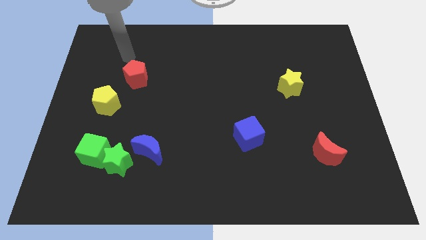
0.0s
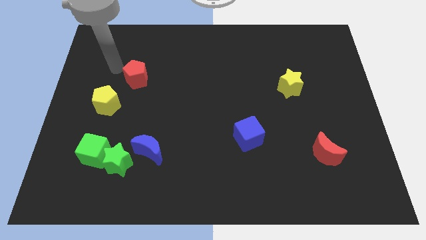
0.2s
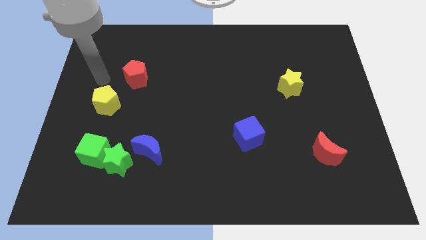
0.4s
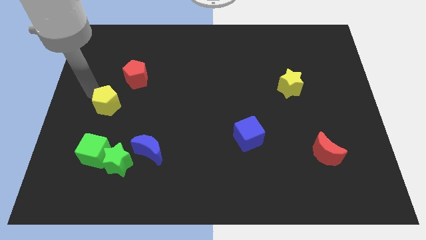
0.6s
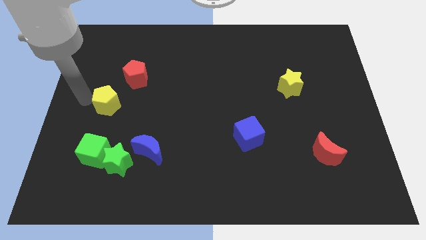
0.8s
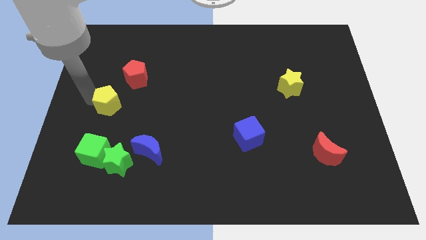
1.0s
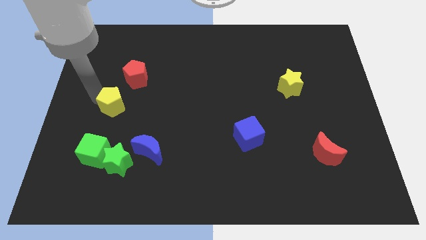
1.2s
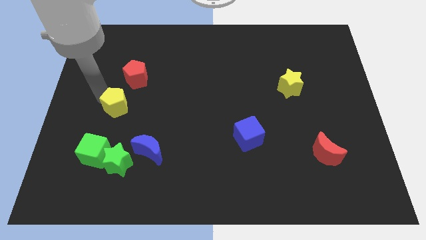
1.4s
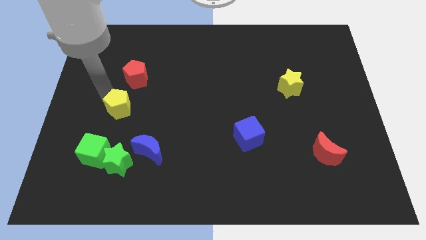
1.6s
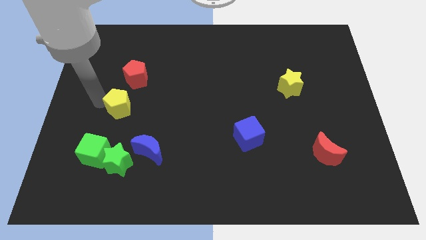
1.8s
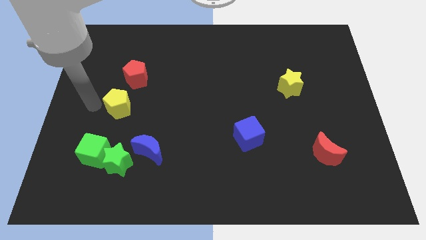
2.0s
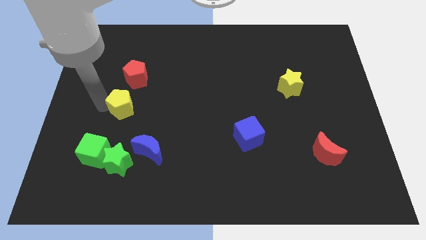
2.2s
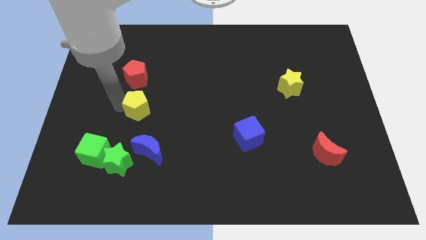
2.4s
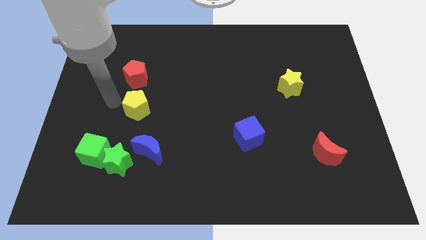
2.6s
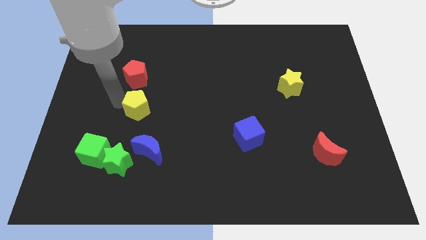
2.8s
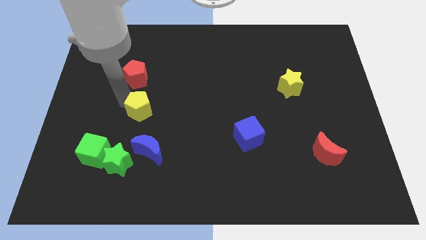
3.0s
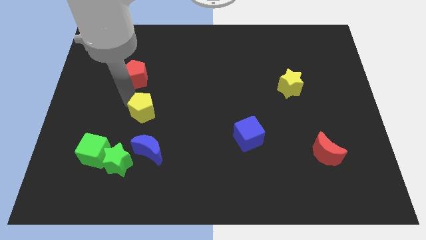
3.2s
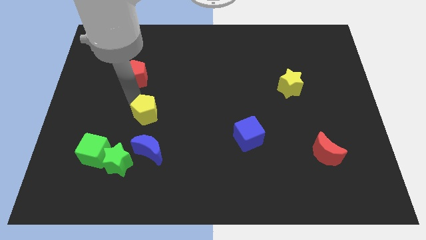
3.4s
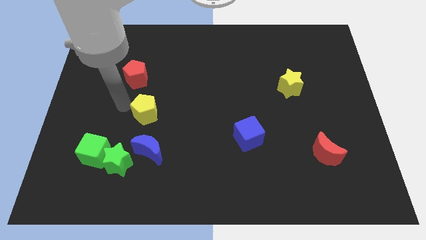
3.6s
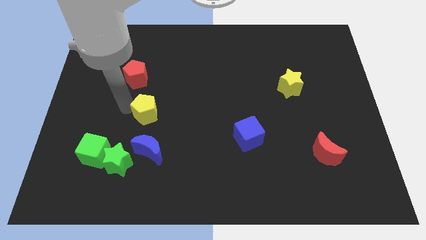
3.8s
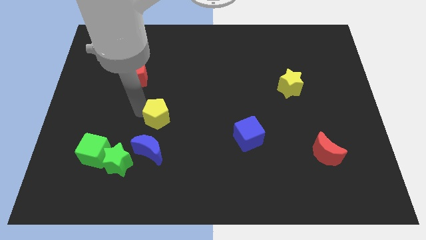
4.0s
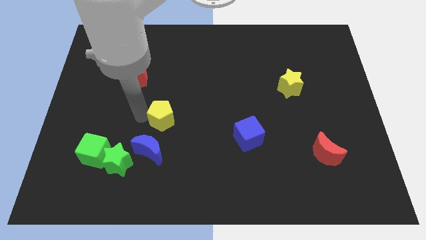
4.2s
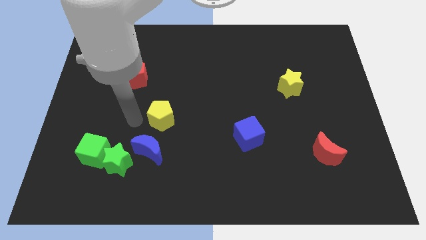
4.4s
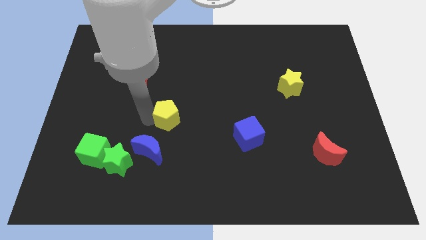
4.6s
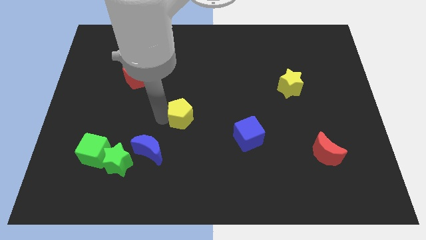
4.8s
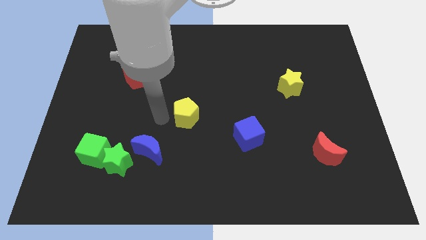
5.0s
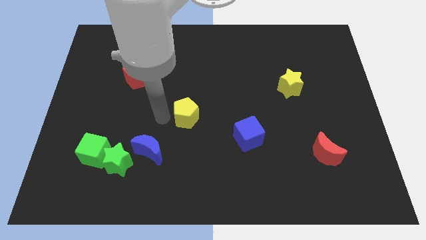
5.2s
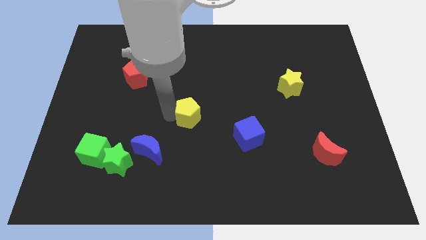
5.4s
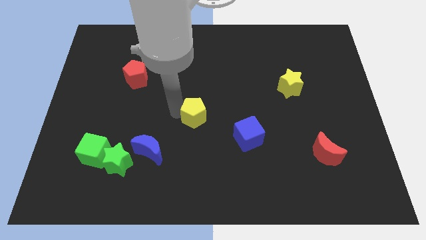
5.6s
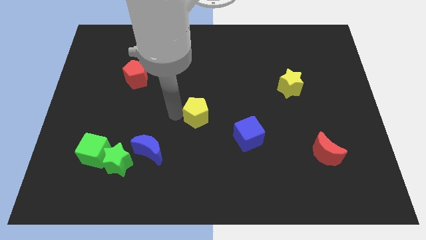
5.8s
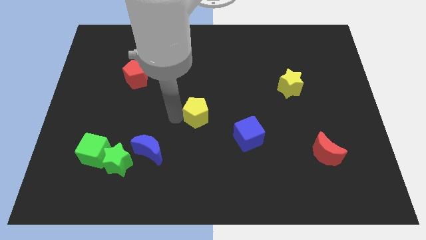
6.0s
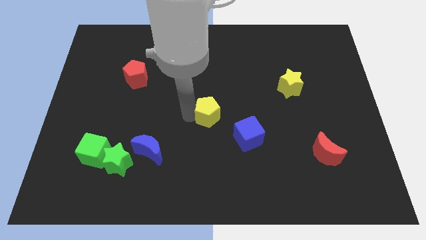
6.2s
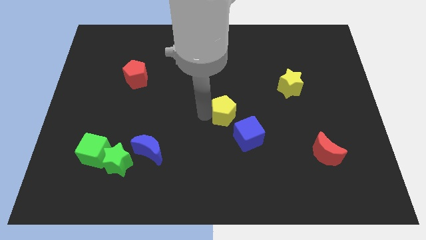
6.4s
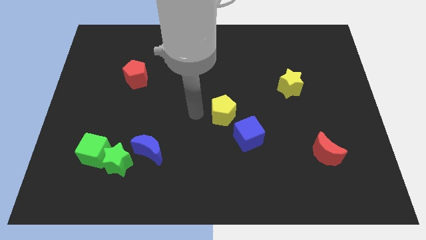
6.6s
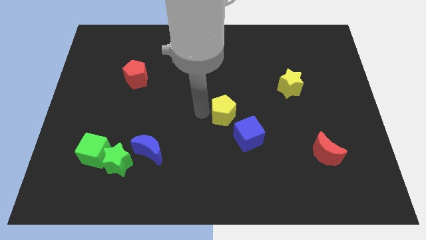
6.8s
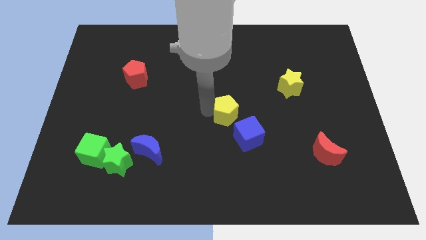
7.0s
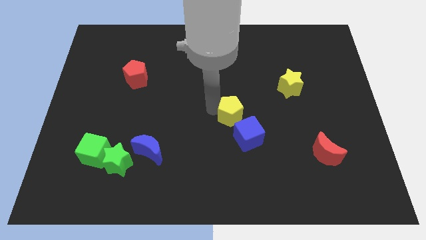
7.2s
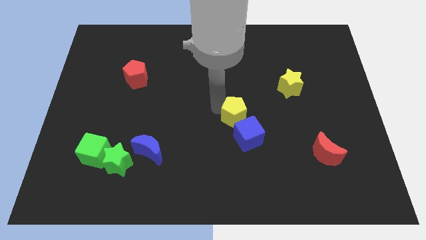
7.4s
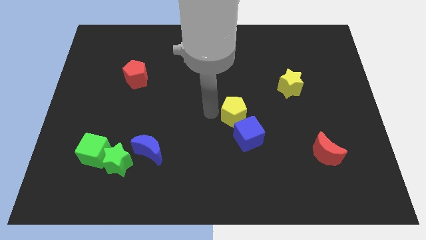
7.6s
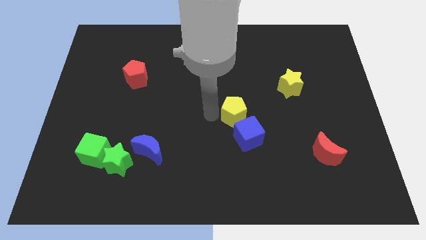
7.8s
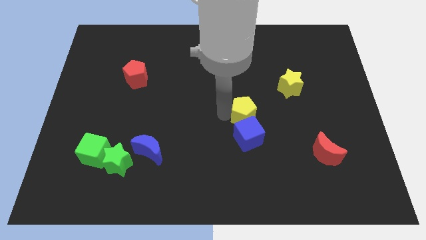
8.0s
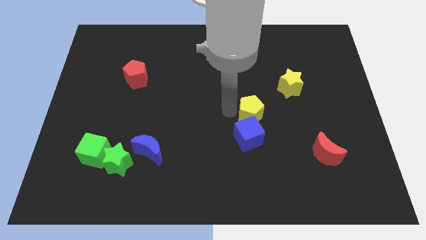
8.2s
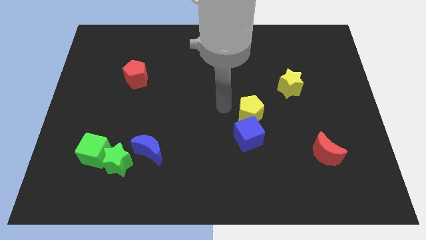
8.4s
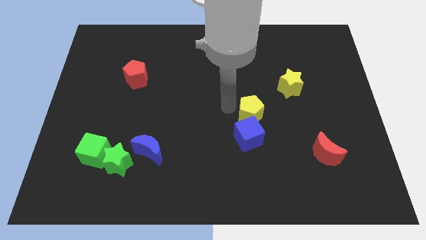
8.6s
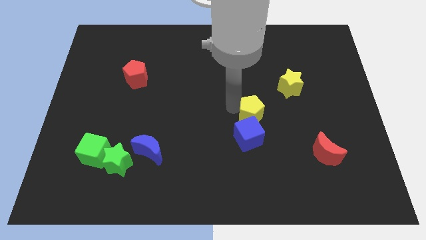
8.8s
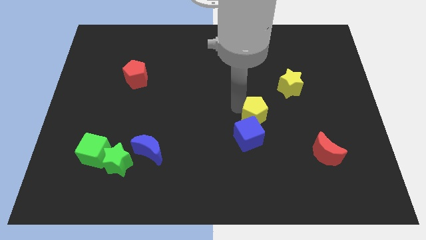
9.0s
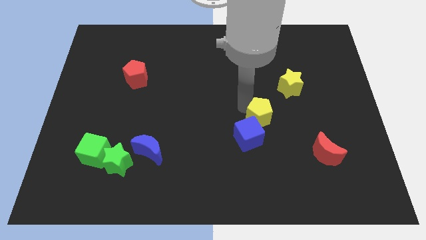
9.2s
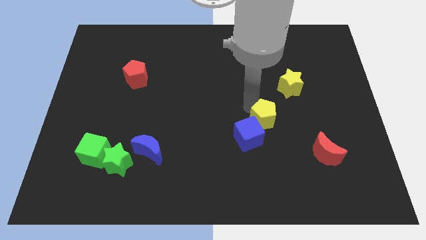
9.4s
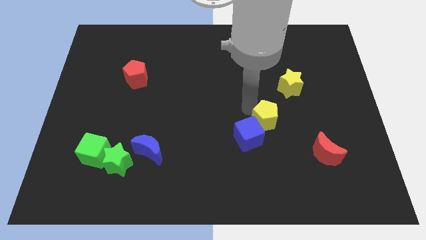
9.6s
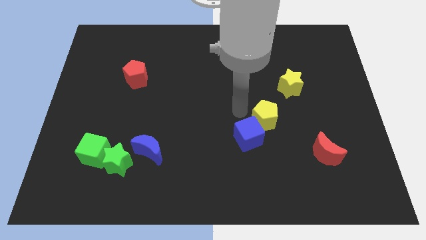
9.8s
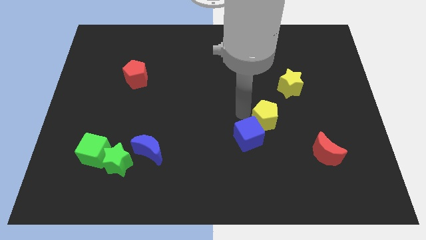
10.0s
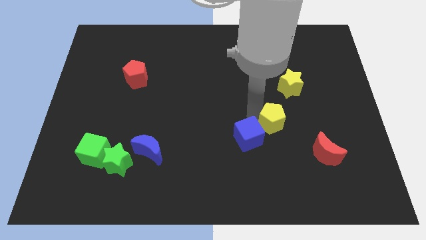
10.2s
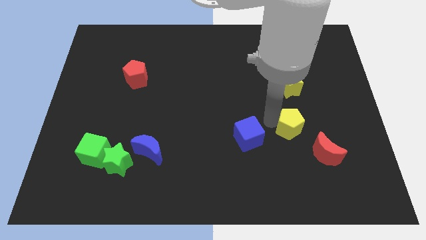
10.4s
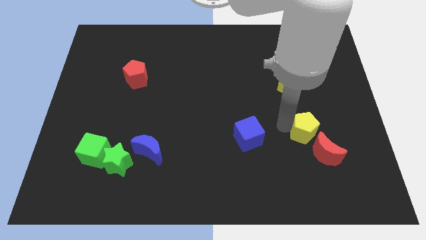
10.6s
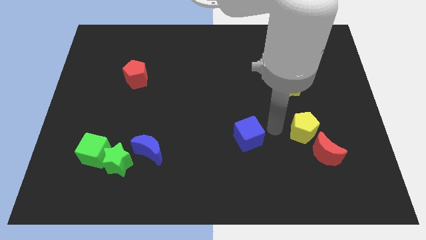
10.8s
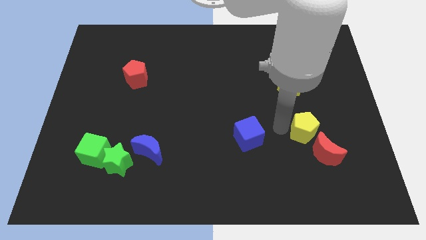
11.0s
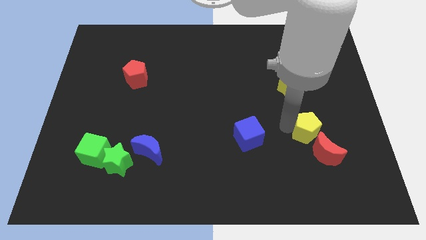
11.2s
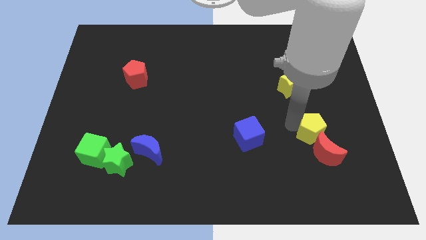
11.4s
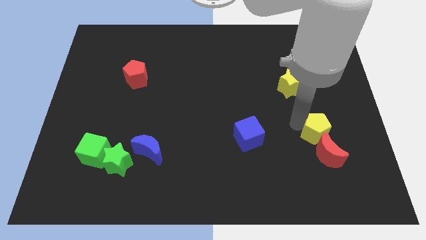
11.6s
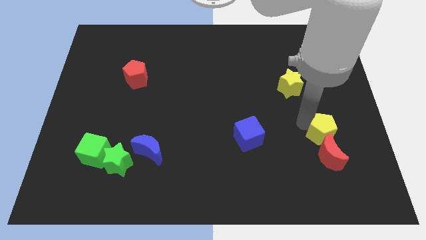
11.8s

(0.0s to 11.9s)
move the yellow pentagon diagonally up and to the right of the red moon
